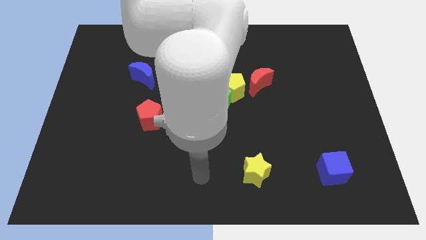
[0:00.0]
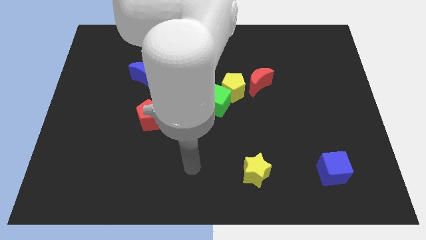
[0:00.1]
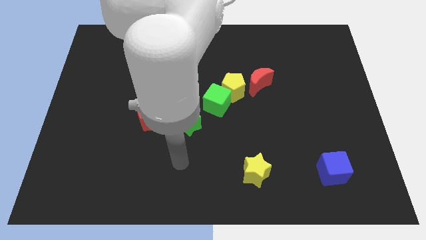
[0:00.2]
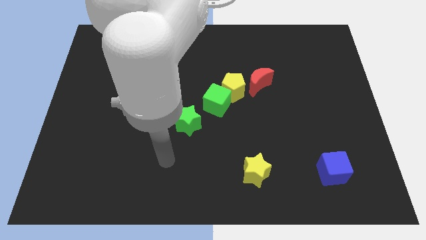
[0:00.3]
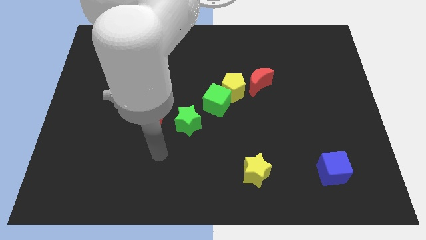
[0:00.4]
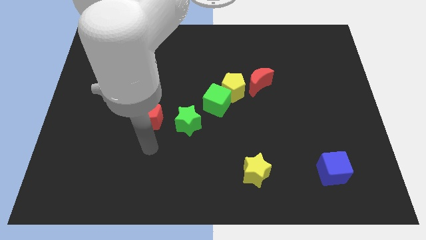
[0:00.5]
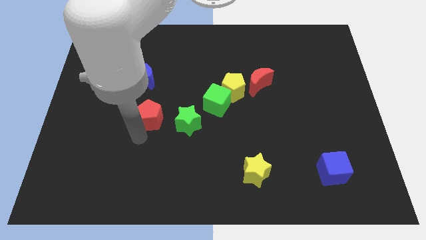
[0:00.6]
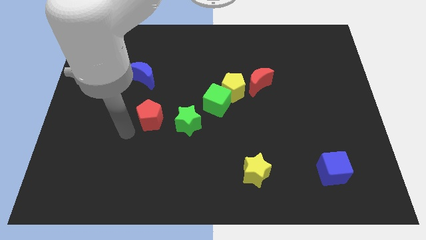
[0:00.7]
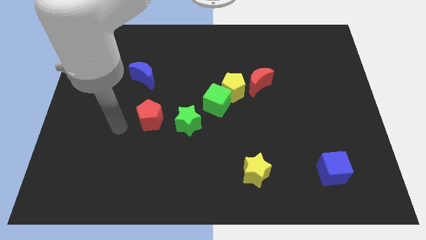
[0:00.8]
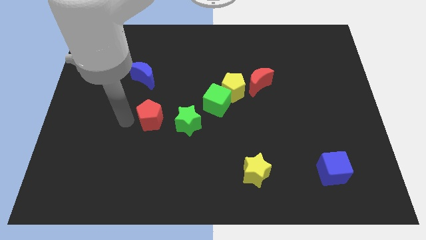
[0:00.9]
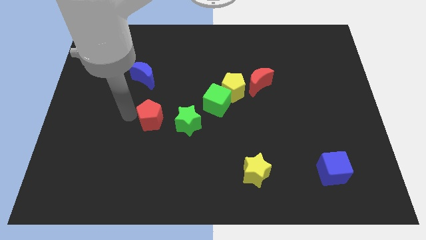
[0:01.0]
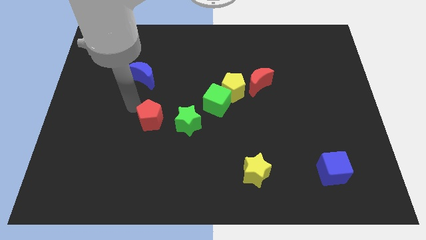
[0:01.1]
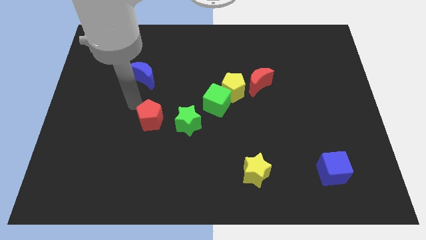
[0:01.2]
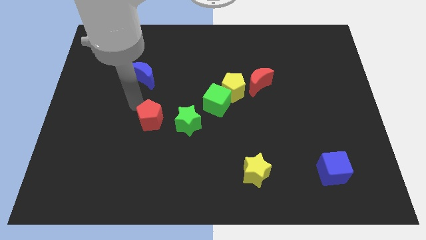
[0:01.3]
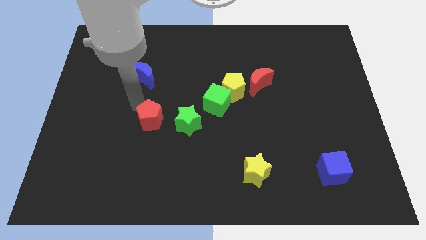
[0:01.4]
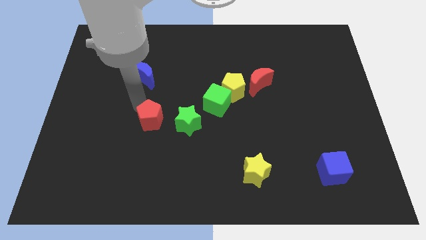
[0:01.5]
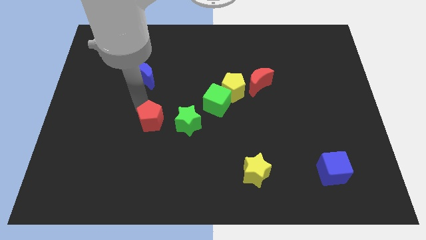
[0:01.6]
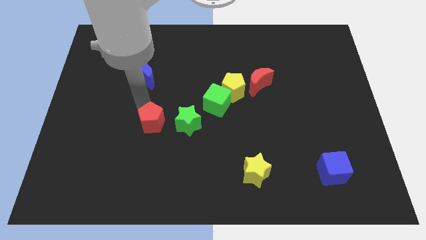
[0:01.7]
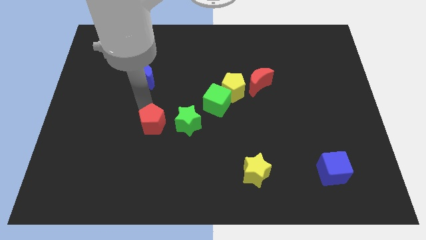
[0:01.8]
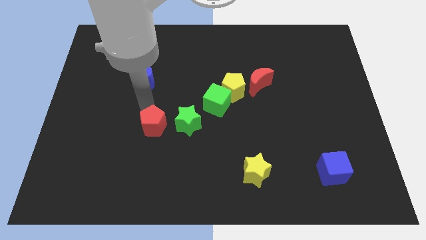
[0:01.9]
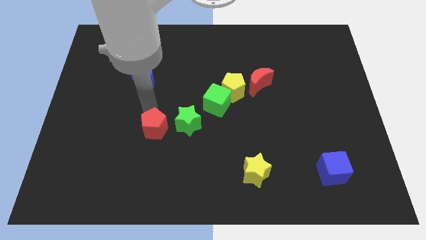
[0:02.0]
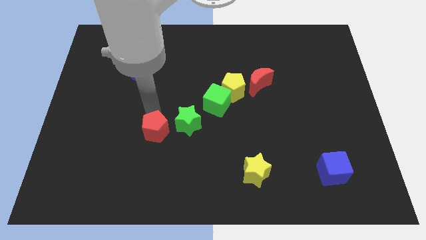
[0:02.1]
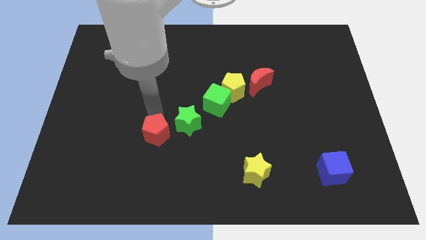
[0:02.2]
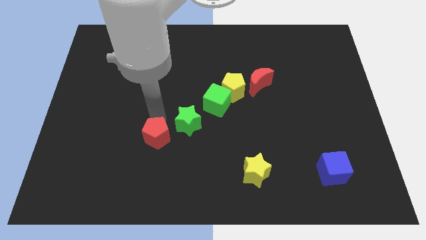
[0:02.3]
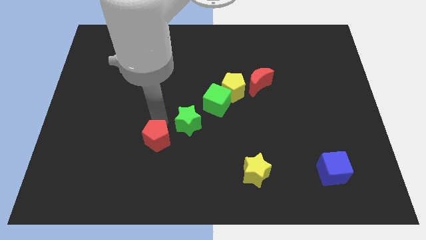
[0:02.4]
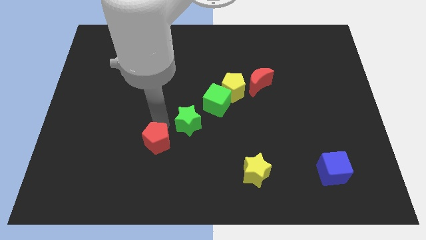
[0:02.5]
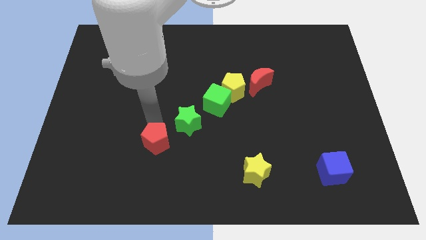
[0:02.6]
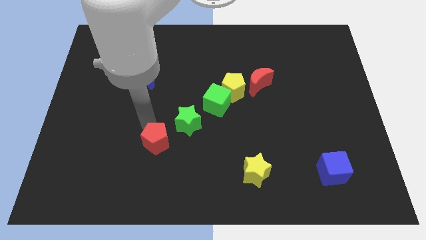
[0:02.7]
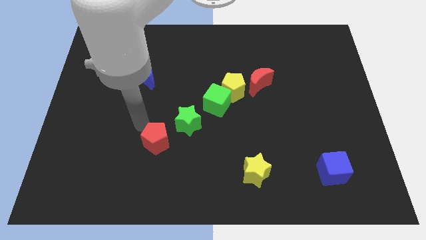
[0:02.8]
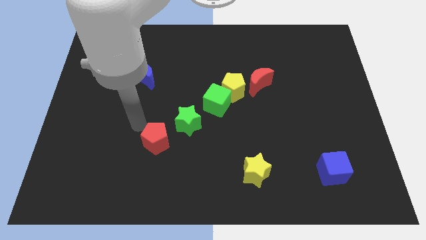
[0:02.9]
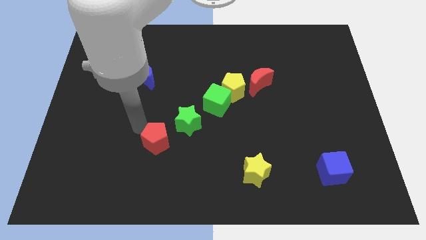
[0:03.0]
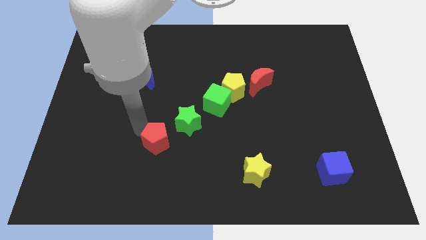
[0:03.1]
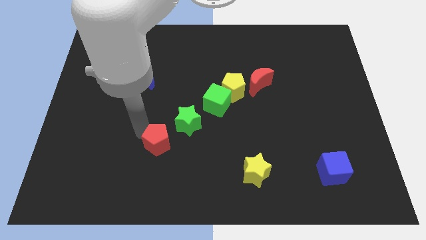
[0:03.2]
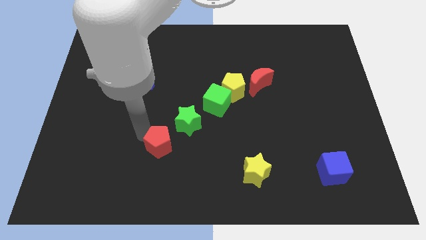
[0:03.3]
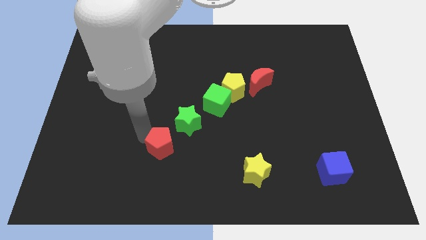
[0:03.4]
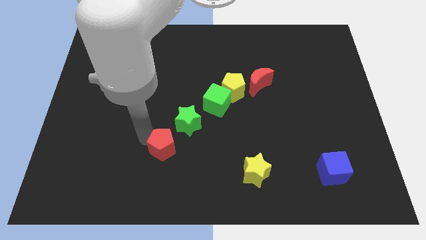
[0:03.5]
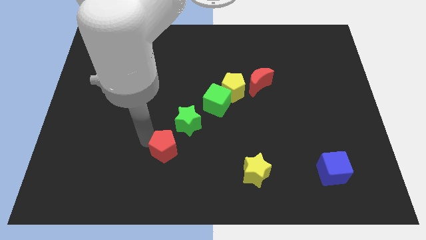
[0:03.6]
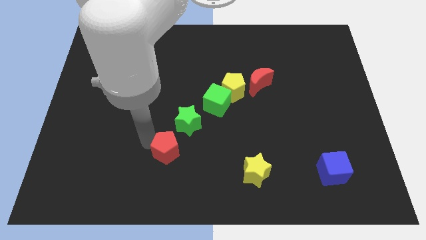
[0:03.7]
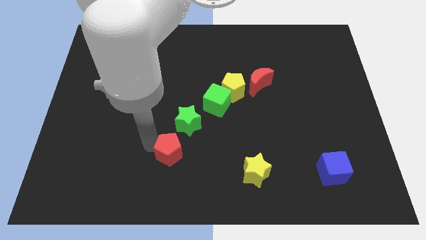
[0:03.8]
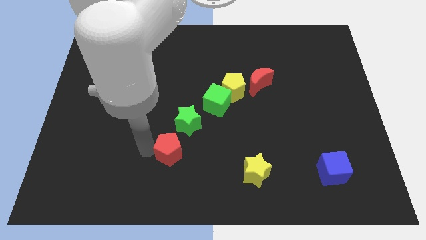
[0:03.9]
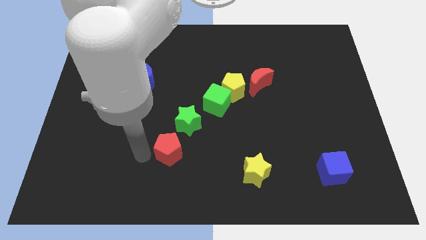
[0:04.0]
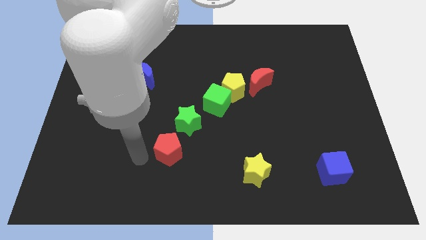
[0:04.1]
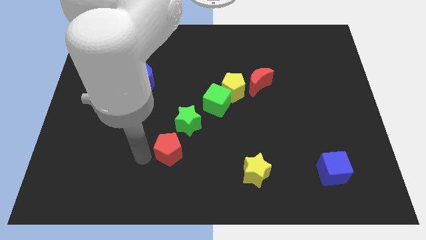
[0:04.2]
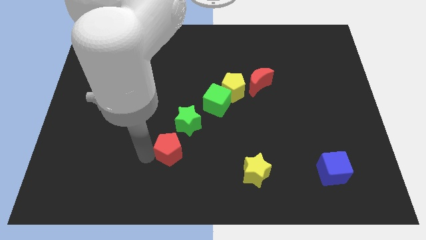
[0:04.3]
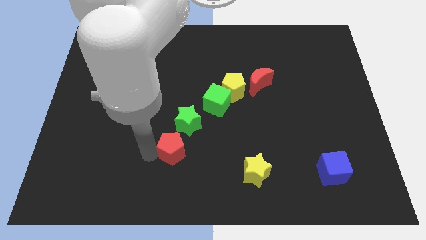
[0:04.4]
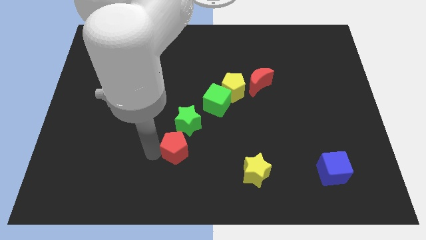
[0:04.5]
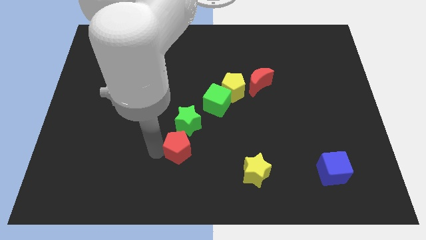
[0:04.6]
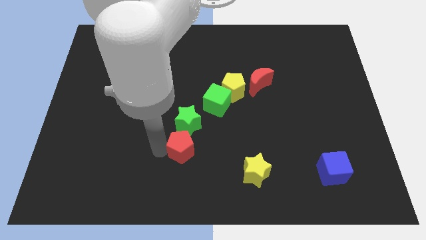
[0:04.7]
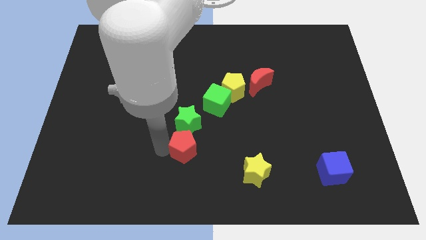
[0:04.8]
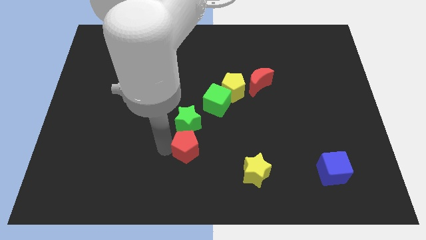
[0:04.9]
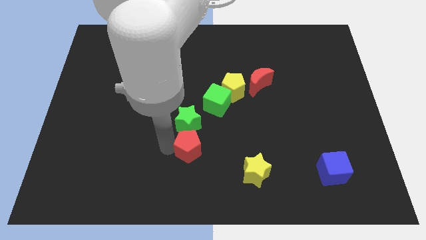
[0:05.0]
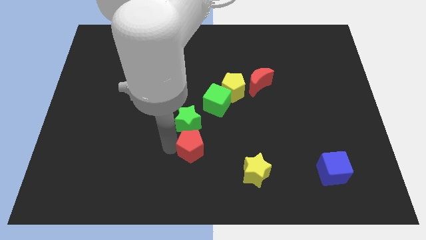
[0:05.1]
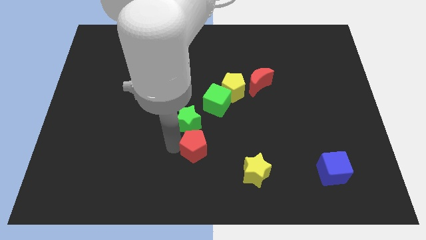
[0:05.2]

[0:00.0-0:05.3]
push the red pentagon to the bottom of the green cube
